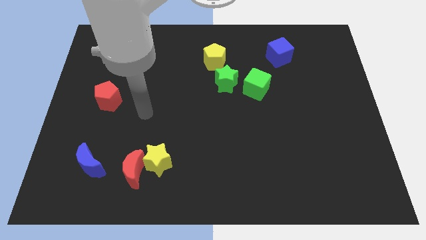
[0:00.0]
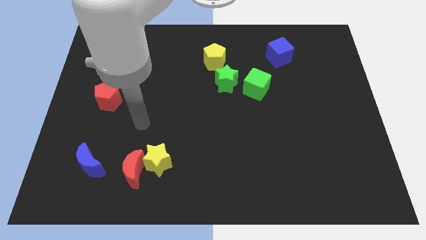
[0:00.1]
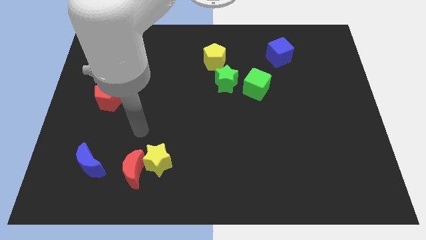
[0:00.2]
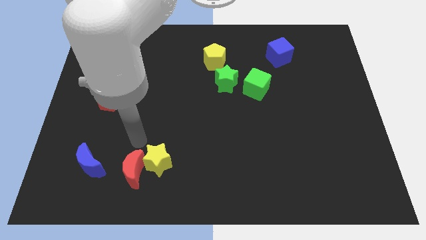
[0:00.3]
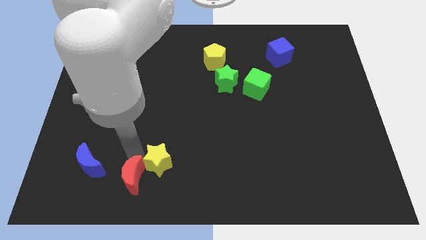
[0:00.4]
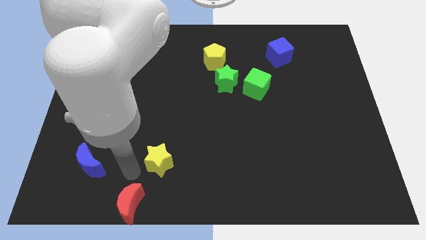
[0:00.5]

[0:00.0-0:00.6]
separate the yellow star from the red moon

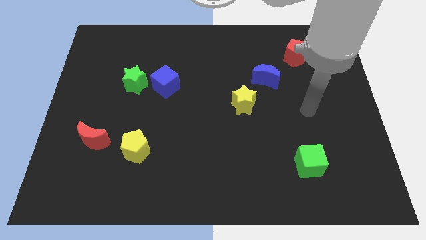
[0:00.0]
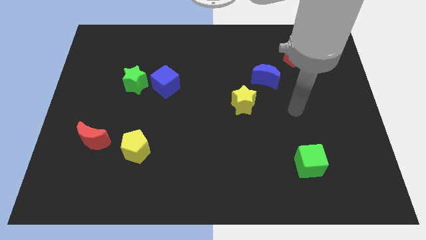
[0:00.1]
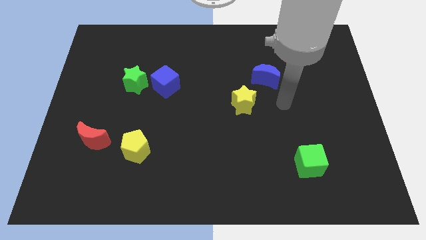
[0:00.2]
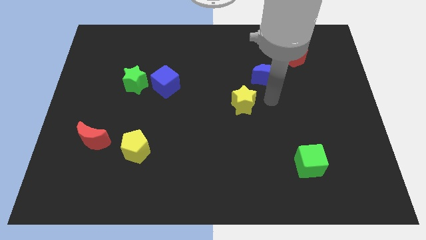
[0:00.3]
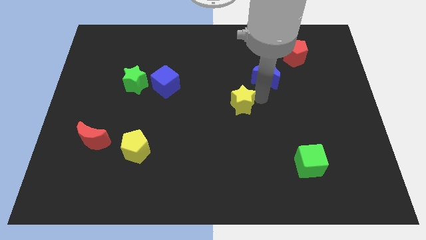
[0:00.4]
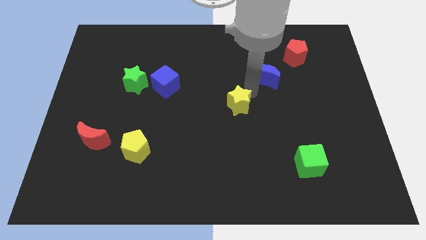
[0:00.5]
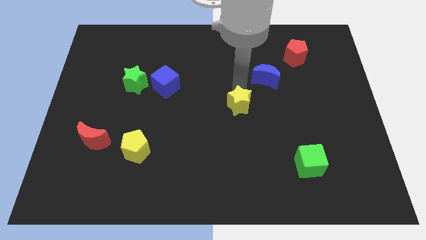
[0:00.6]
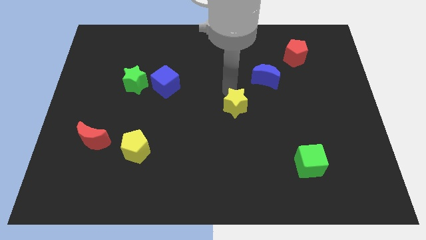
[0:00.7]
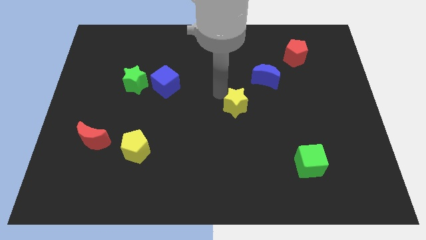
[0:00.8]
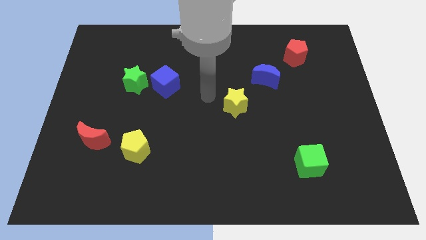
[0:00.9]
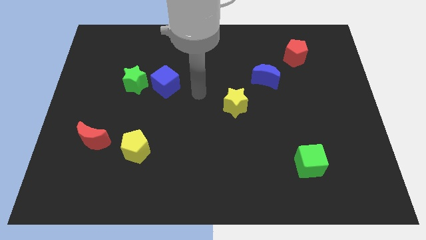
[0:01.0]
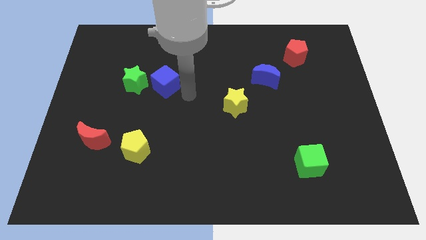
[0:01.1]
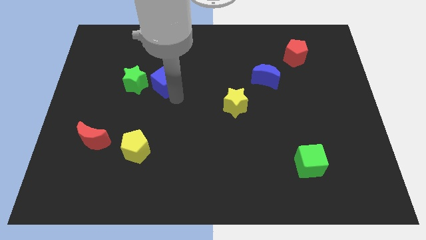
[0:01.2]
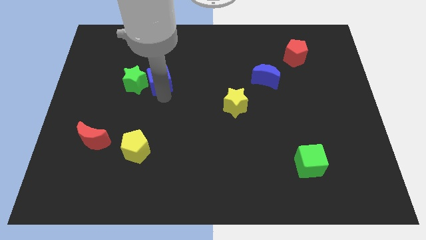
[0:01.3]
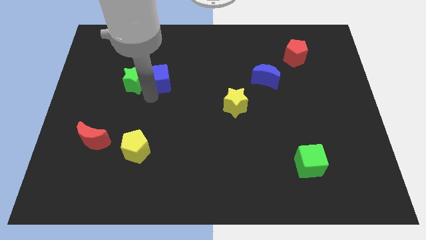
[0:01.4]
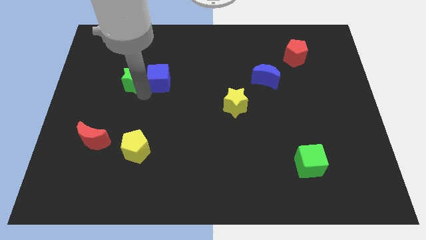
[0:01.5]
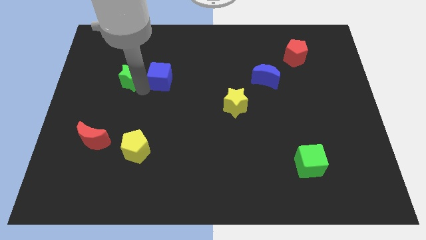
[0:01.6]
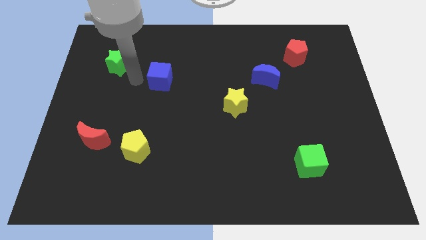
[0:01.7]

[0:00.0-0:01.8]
separate the blue cube from the green star

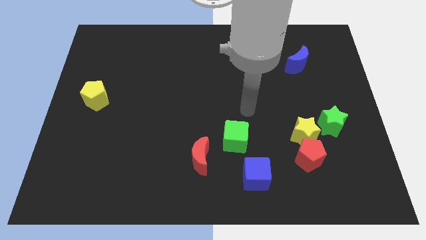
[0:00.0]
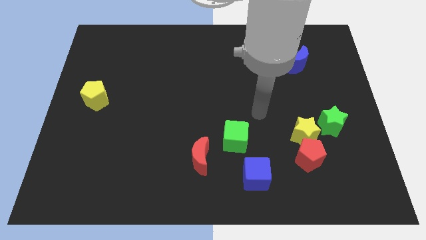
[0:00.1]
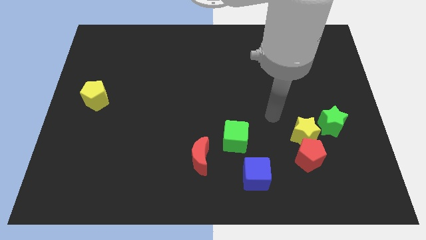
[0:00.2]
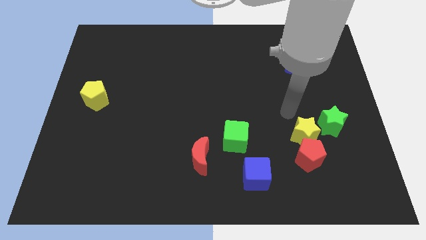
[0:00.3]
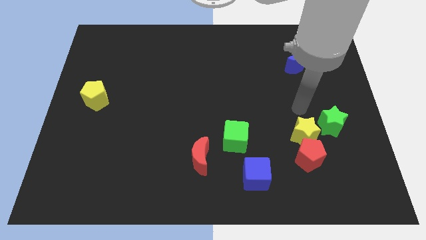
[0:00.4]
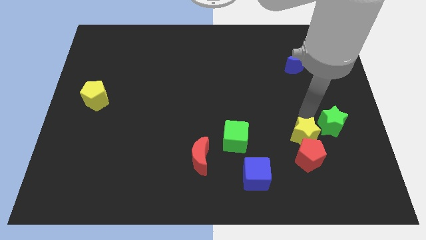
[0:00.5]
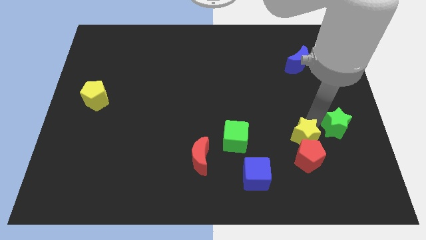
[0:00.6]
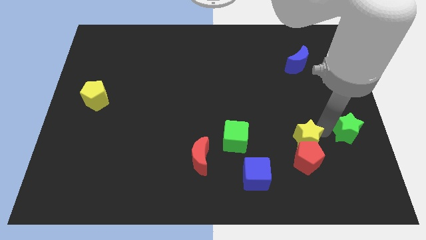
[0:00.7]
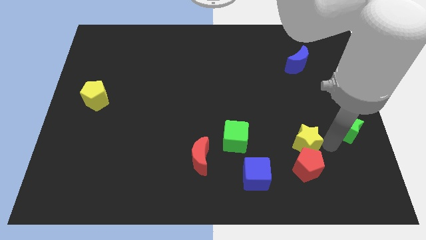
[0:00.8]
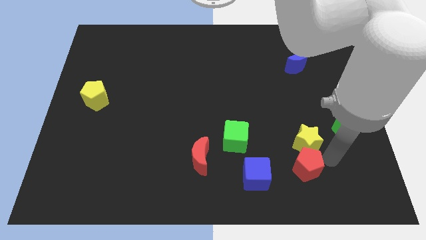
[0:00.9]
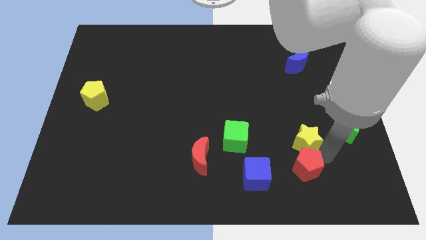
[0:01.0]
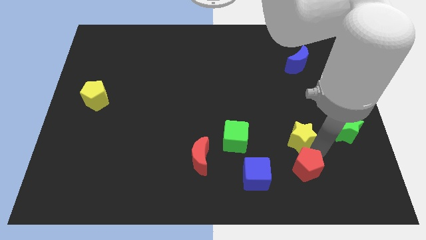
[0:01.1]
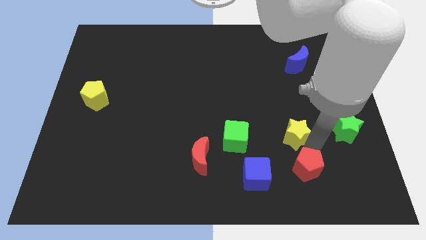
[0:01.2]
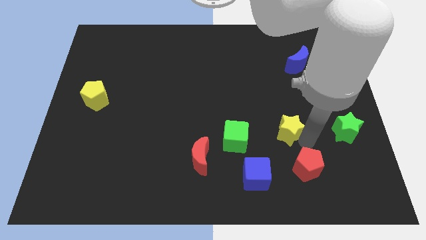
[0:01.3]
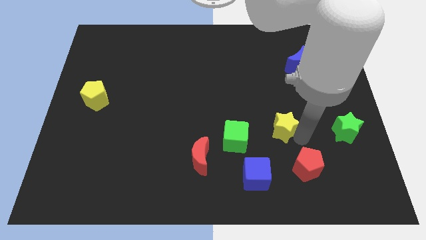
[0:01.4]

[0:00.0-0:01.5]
separate the yellow star from the red pentagon and green star

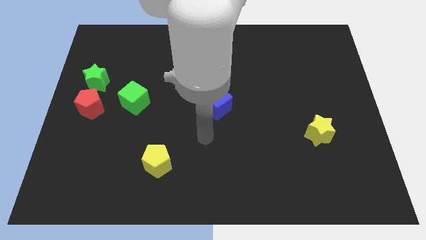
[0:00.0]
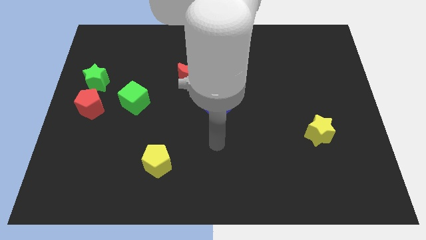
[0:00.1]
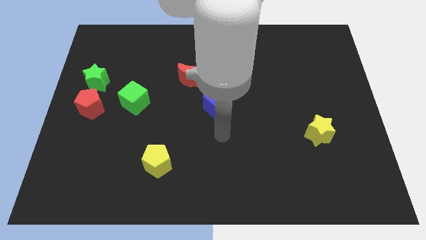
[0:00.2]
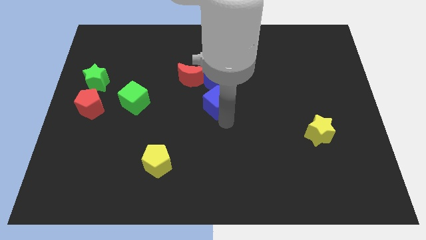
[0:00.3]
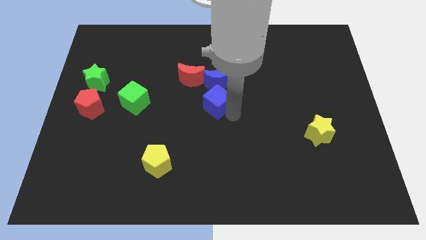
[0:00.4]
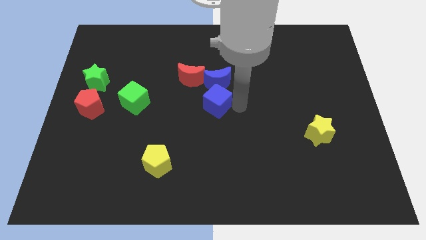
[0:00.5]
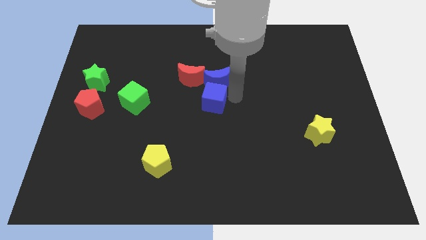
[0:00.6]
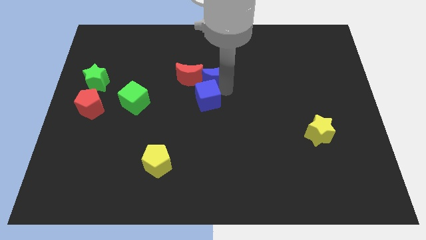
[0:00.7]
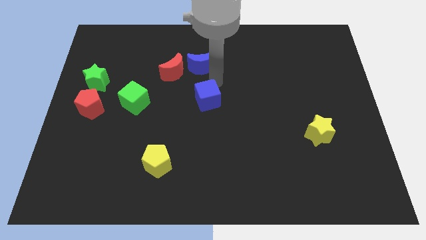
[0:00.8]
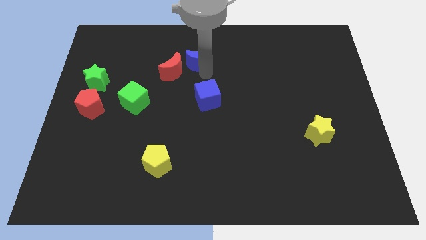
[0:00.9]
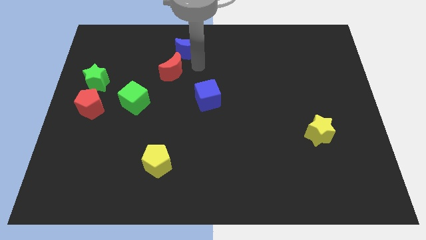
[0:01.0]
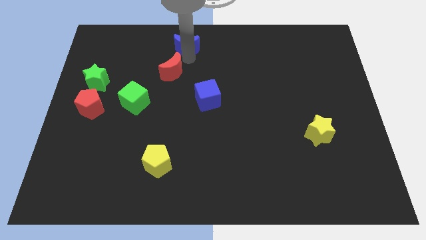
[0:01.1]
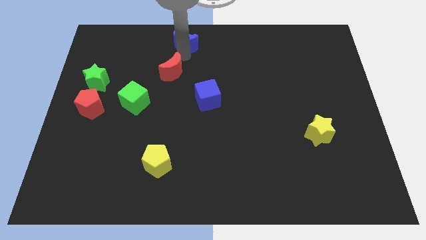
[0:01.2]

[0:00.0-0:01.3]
separate the red moon from the blue moon

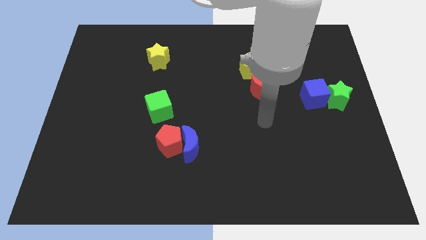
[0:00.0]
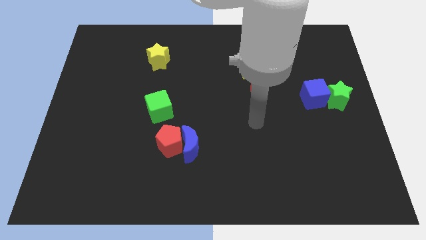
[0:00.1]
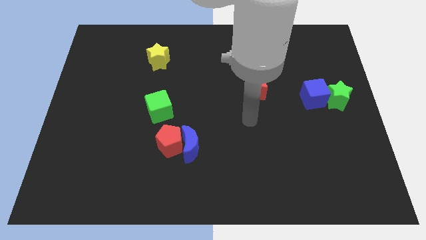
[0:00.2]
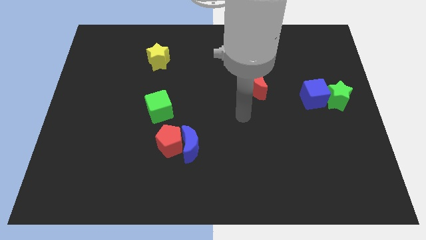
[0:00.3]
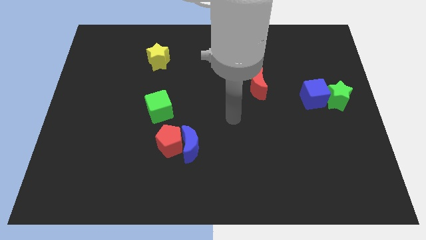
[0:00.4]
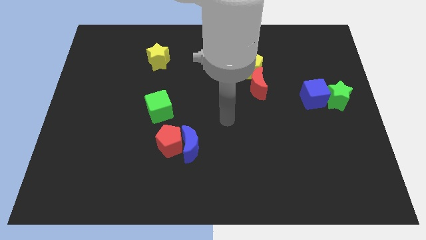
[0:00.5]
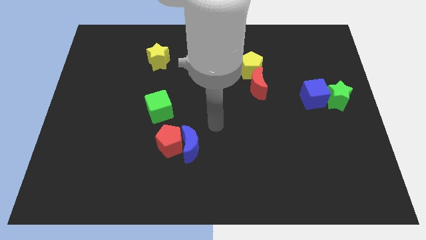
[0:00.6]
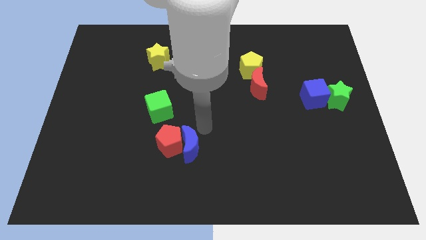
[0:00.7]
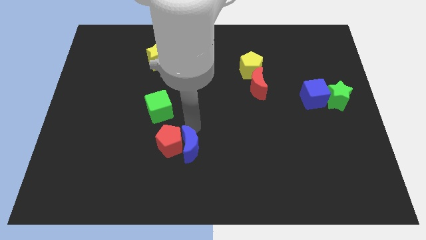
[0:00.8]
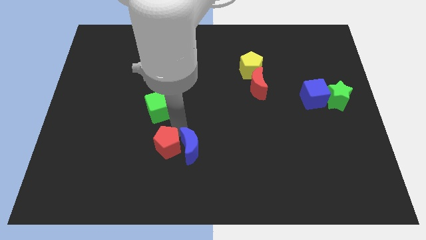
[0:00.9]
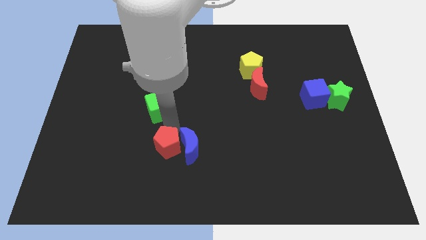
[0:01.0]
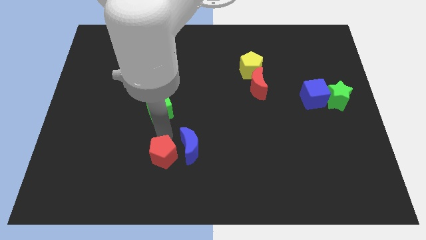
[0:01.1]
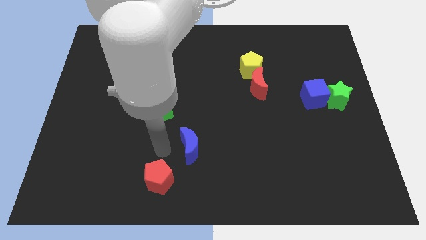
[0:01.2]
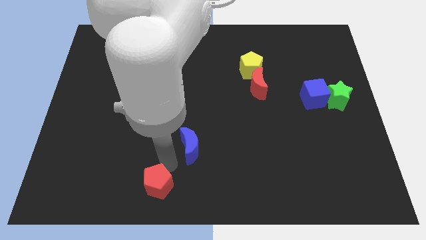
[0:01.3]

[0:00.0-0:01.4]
move the blue moon away from the red pentagon

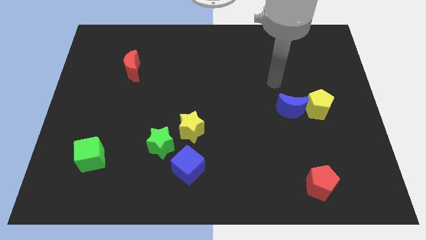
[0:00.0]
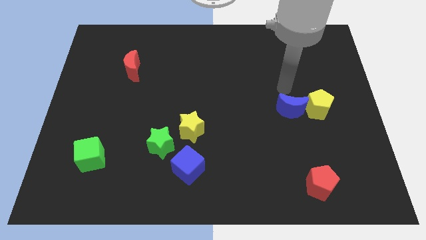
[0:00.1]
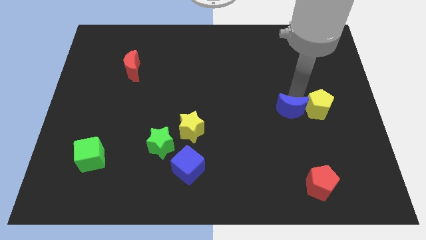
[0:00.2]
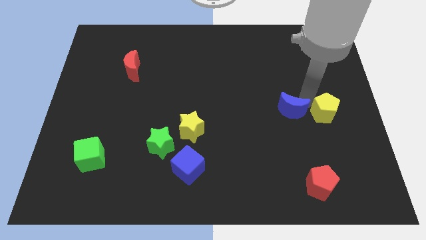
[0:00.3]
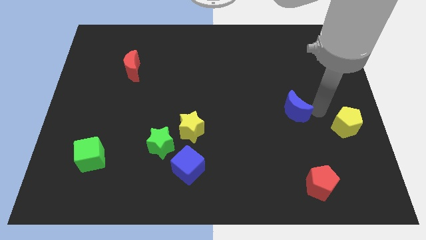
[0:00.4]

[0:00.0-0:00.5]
move the blue moon away from the yellow pentagon

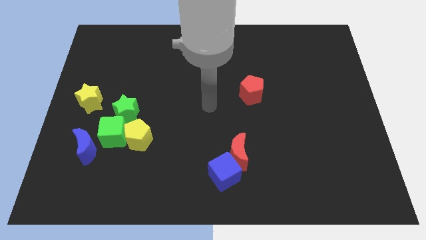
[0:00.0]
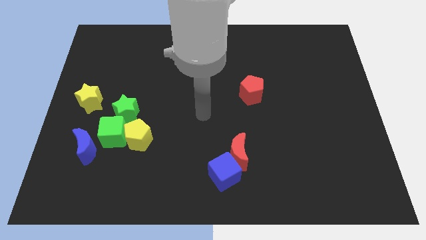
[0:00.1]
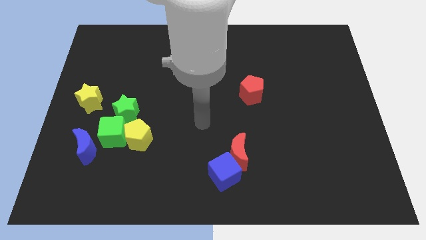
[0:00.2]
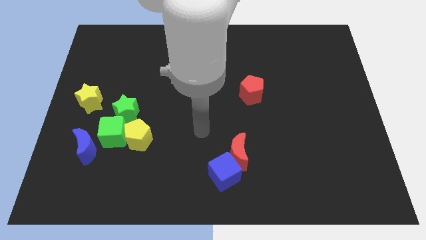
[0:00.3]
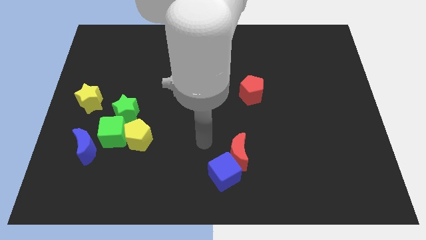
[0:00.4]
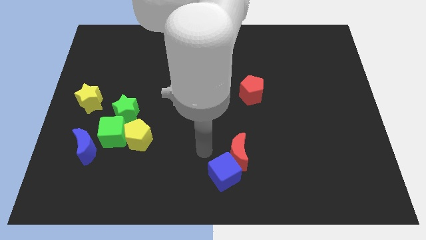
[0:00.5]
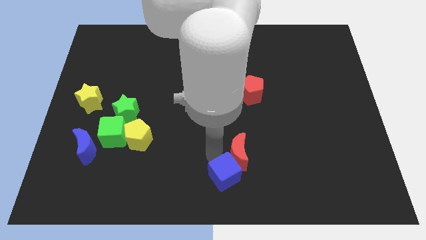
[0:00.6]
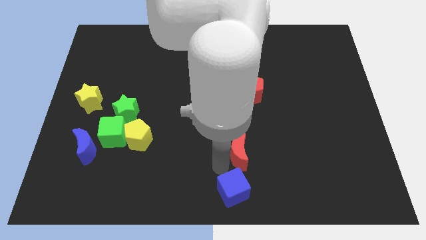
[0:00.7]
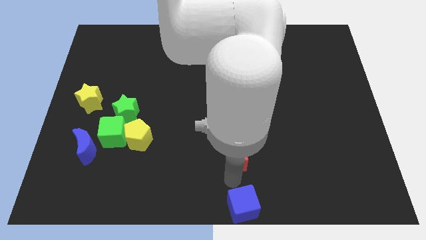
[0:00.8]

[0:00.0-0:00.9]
separate the red moon from the blue cube

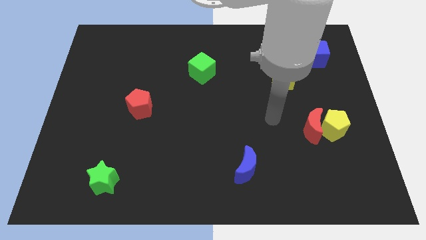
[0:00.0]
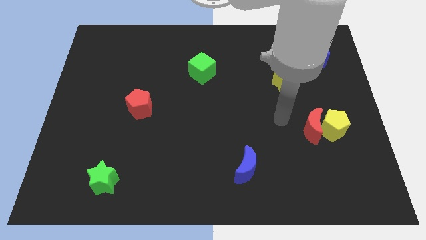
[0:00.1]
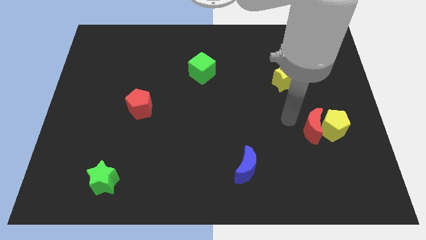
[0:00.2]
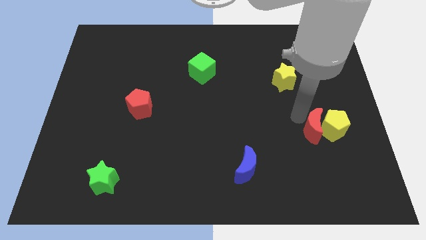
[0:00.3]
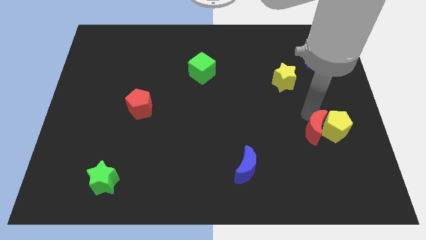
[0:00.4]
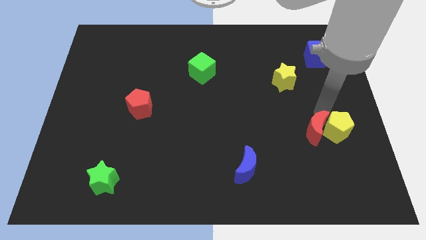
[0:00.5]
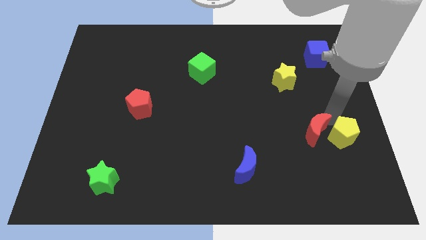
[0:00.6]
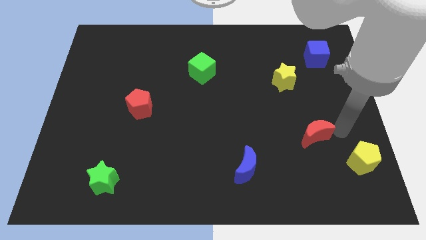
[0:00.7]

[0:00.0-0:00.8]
separate the red moon from the yellow pentagon

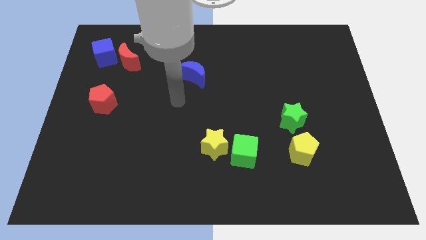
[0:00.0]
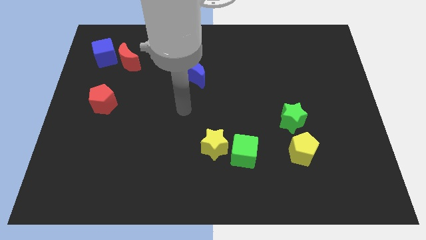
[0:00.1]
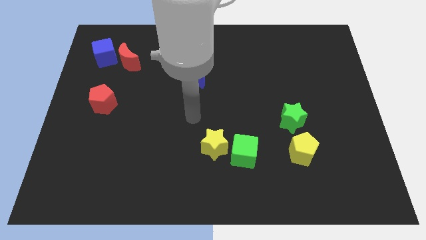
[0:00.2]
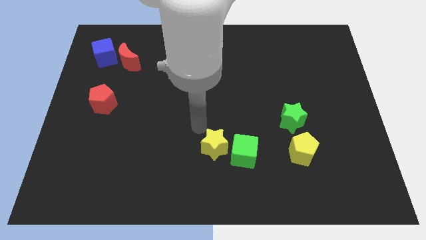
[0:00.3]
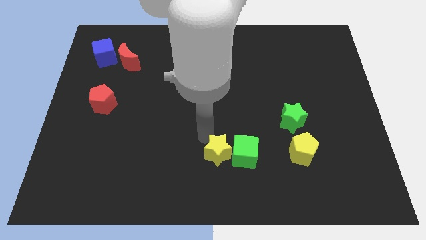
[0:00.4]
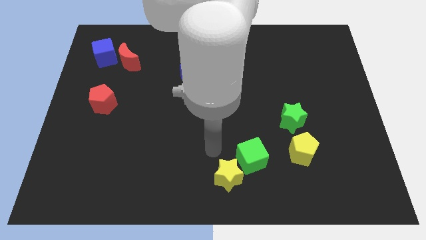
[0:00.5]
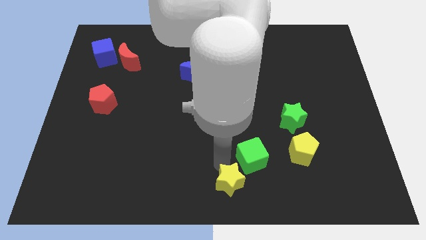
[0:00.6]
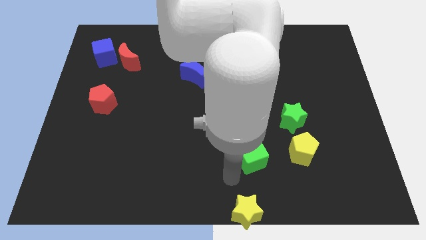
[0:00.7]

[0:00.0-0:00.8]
move the green cube away from the yellow star
